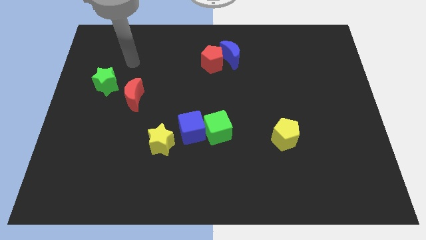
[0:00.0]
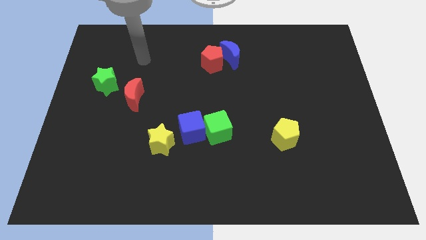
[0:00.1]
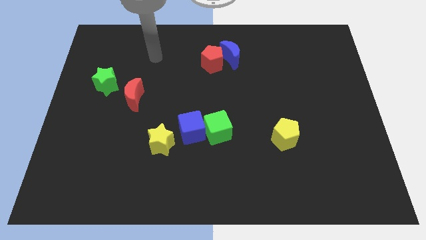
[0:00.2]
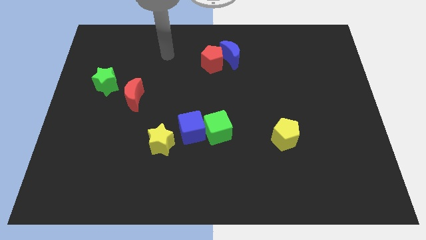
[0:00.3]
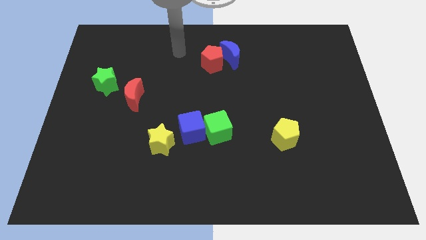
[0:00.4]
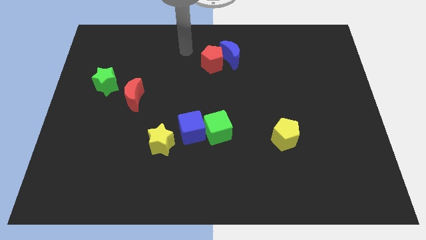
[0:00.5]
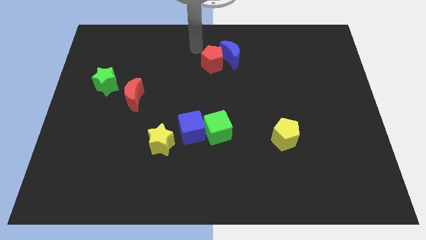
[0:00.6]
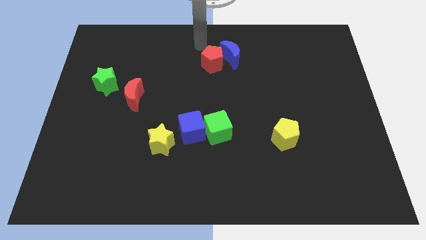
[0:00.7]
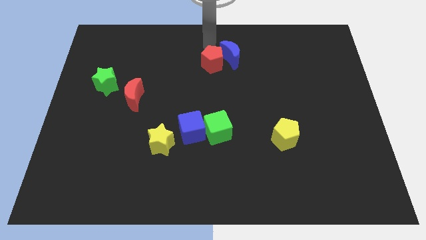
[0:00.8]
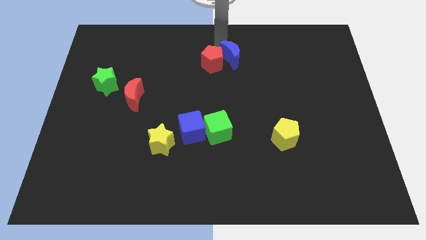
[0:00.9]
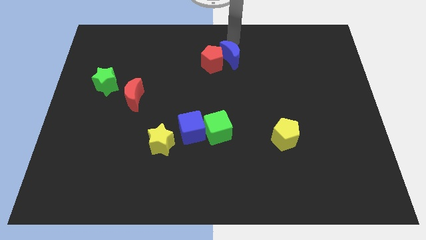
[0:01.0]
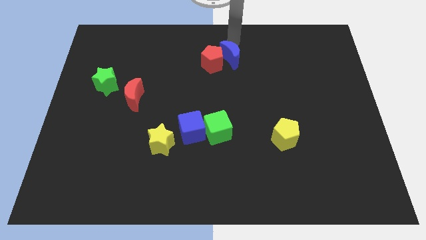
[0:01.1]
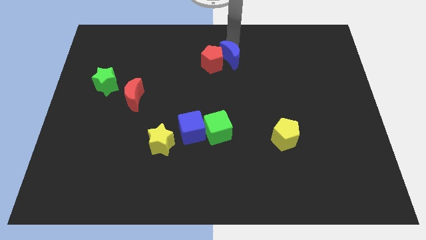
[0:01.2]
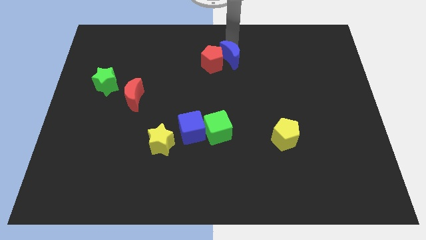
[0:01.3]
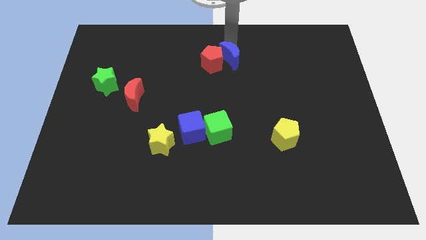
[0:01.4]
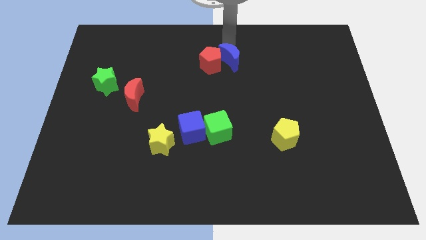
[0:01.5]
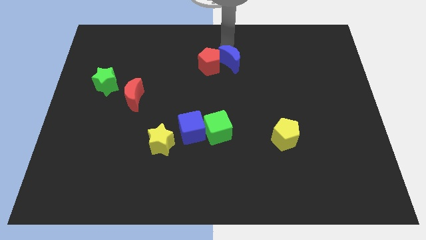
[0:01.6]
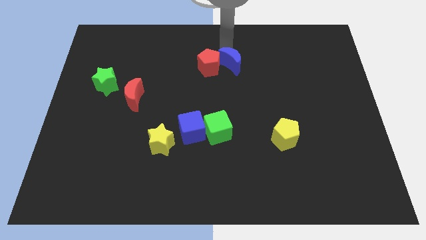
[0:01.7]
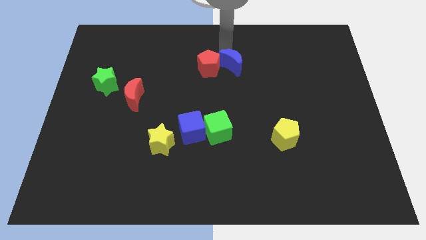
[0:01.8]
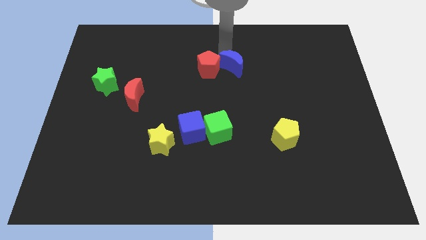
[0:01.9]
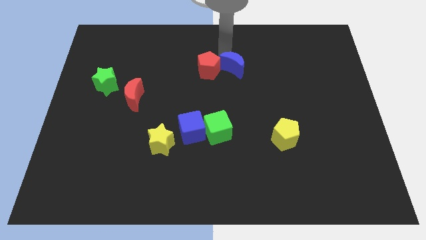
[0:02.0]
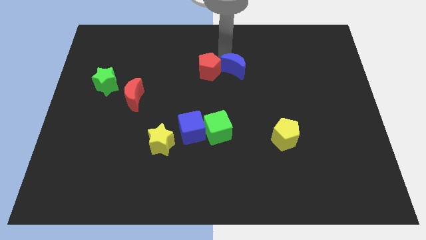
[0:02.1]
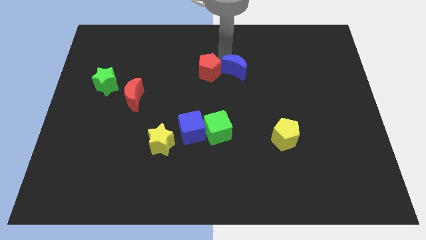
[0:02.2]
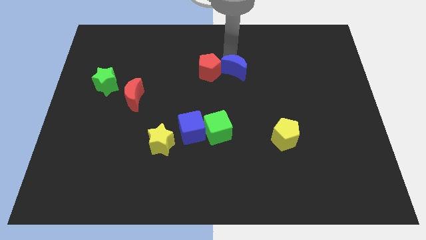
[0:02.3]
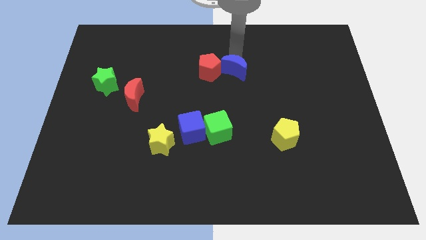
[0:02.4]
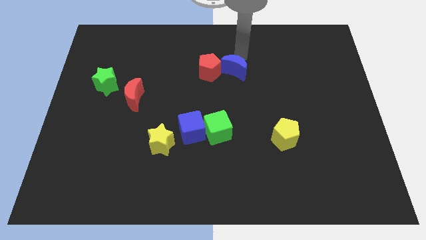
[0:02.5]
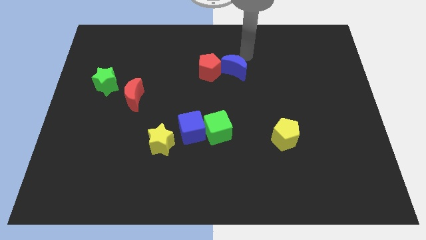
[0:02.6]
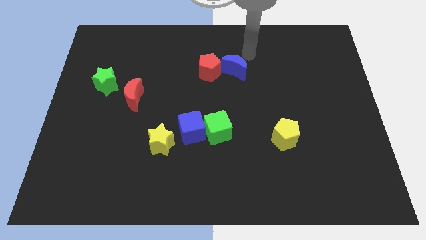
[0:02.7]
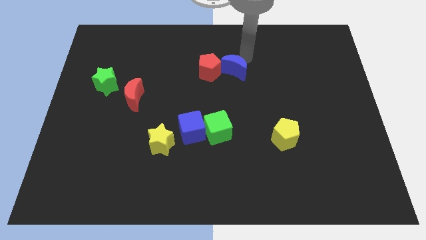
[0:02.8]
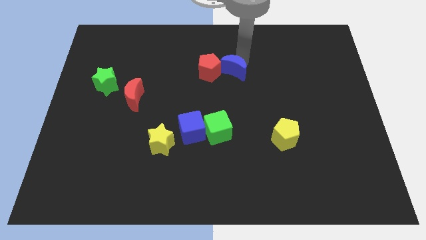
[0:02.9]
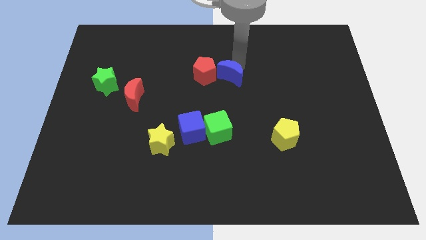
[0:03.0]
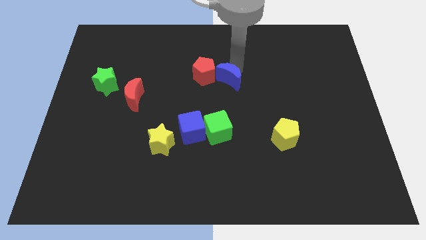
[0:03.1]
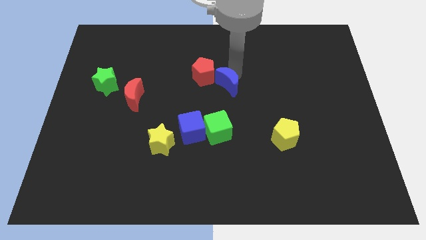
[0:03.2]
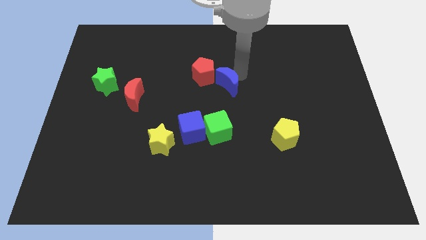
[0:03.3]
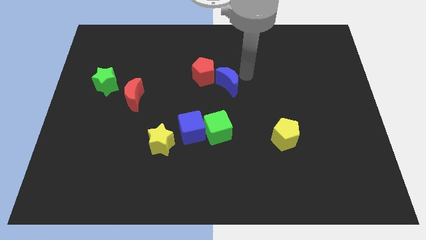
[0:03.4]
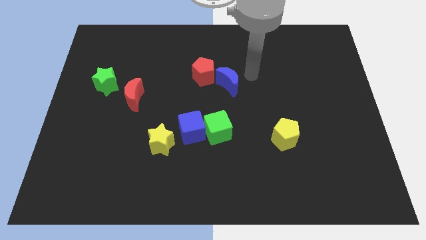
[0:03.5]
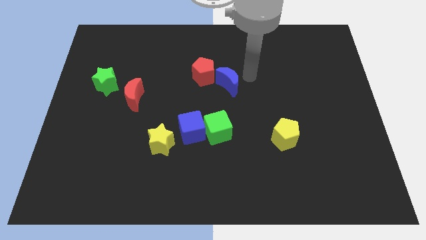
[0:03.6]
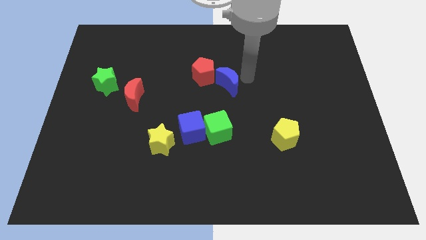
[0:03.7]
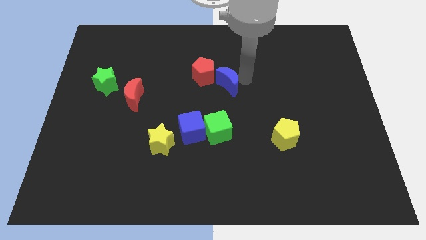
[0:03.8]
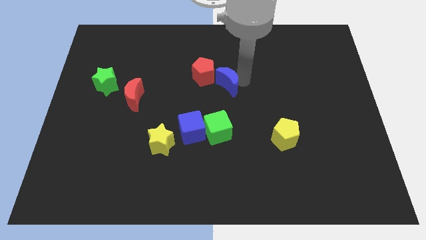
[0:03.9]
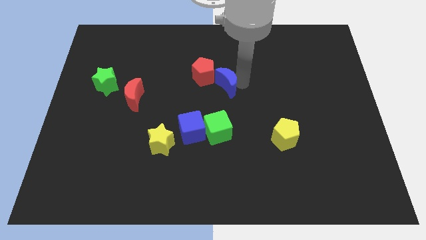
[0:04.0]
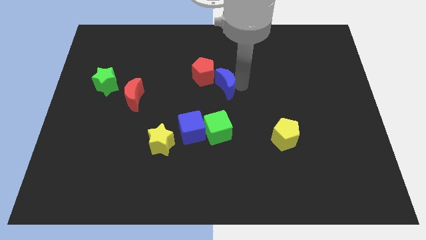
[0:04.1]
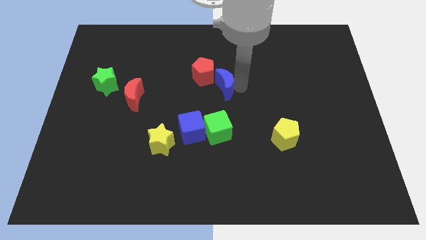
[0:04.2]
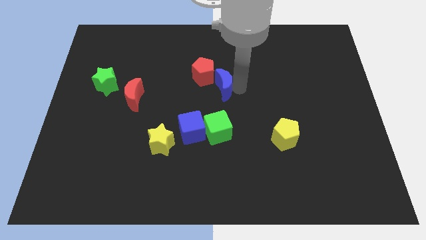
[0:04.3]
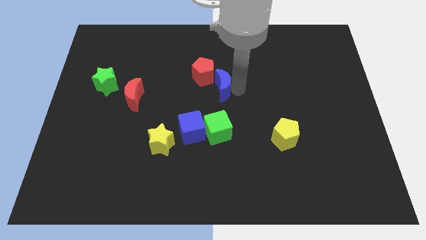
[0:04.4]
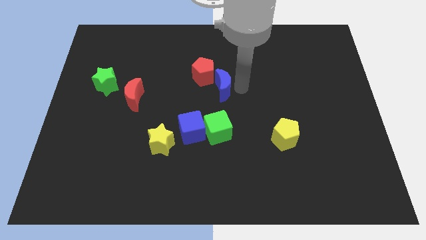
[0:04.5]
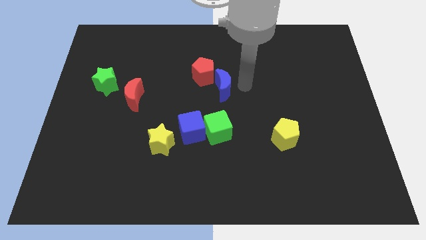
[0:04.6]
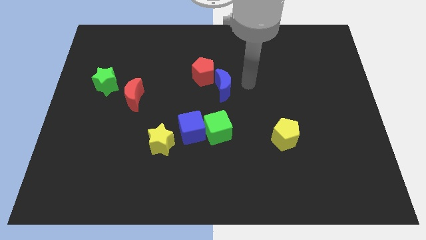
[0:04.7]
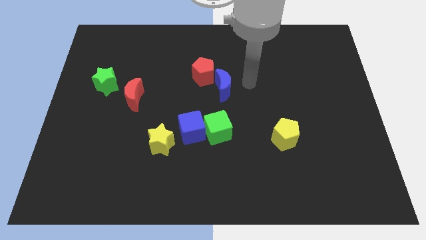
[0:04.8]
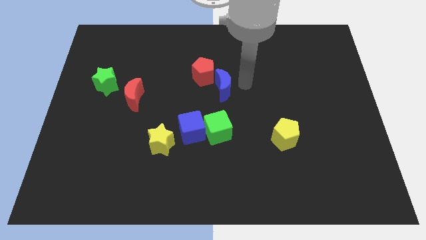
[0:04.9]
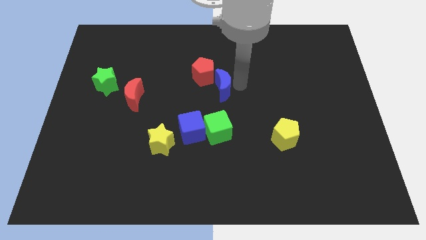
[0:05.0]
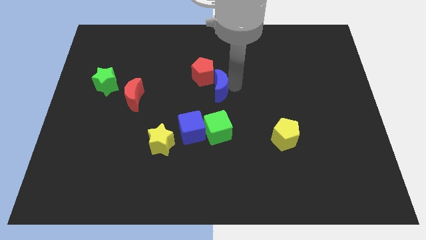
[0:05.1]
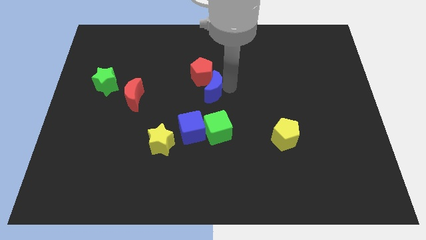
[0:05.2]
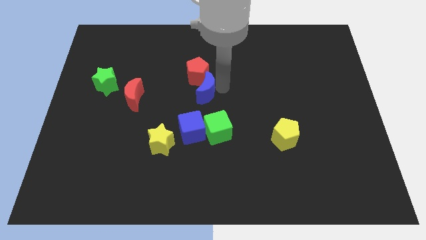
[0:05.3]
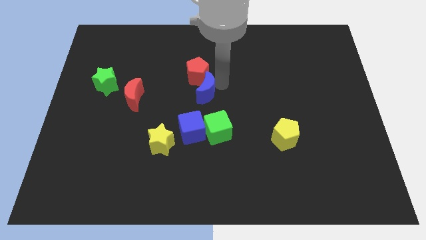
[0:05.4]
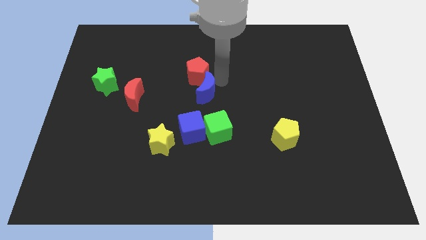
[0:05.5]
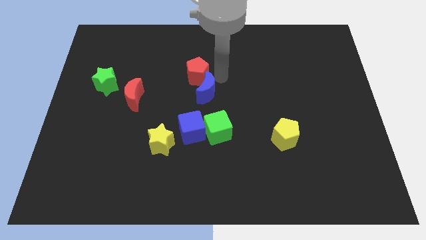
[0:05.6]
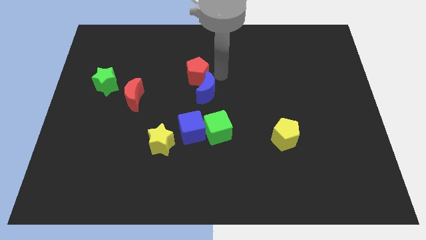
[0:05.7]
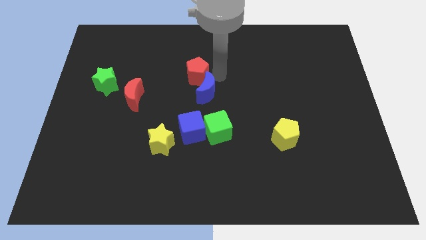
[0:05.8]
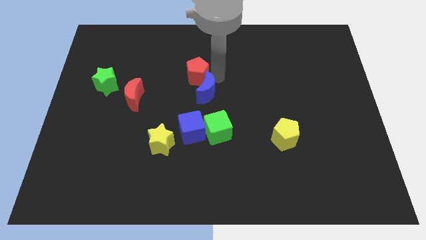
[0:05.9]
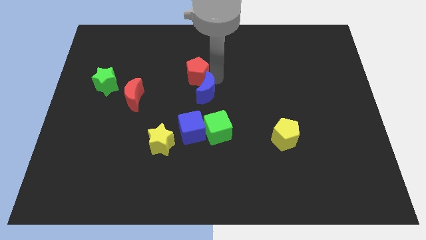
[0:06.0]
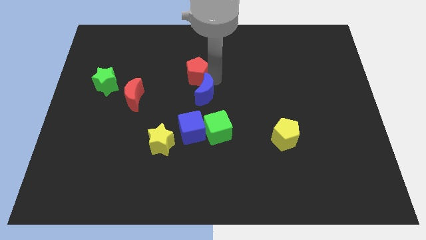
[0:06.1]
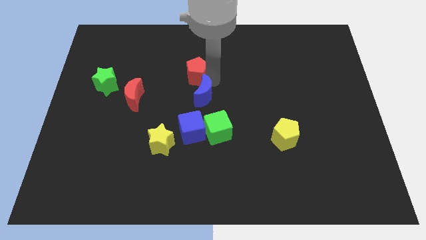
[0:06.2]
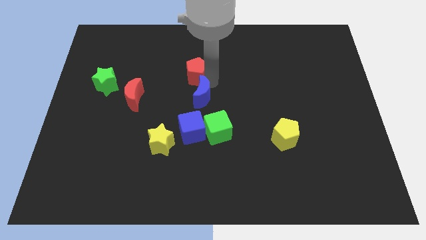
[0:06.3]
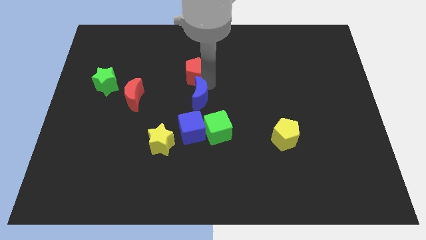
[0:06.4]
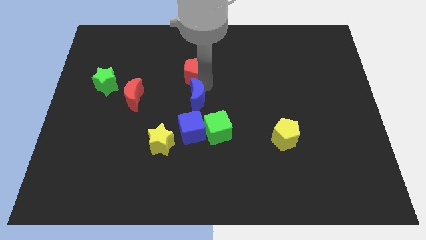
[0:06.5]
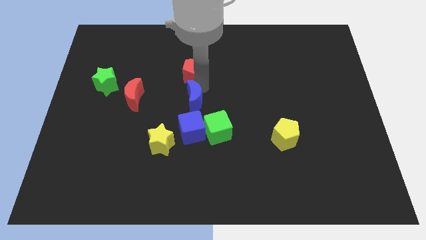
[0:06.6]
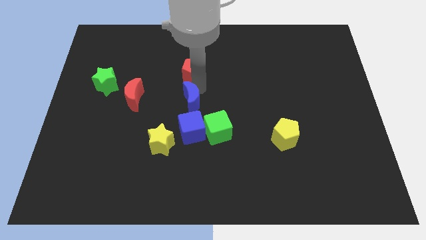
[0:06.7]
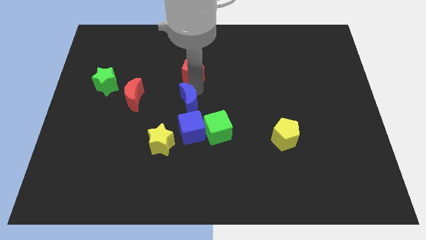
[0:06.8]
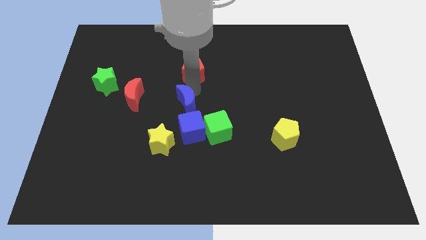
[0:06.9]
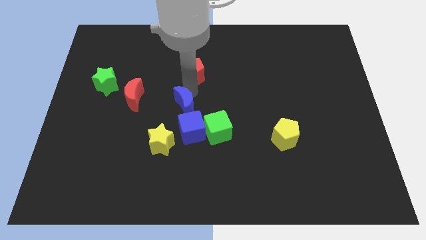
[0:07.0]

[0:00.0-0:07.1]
slide the blue moon to the top right side of the yellow star

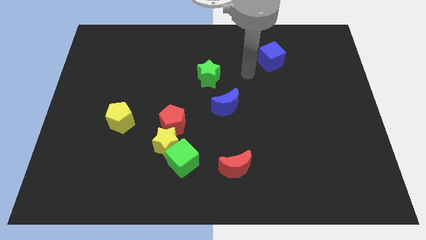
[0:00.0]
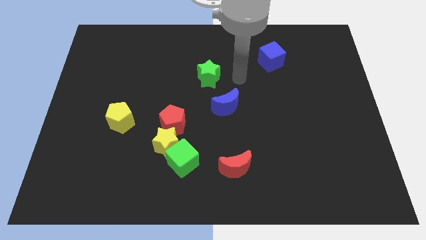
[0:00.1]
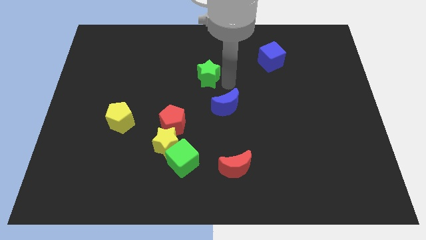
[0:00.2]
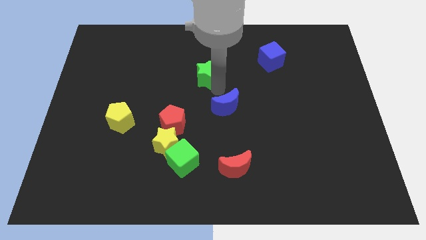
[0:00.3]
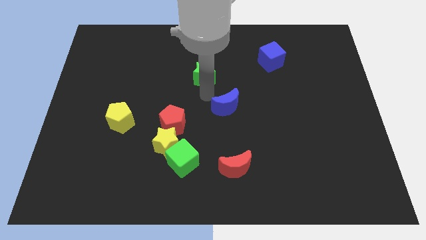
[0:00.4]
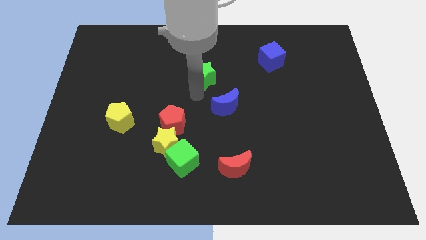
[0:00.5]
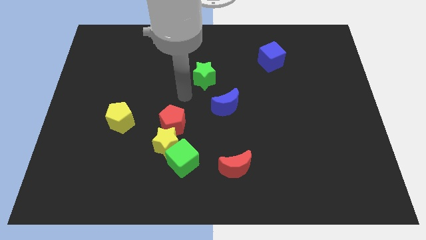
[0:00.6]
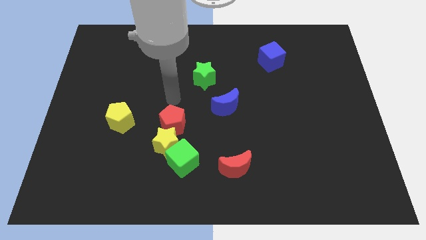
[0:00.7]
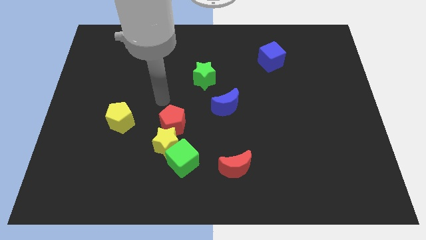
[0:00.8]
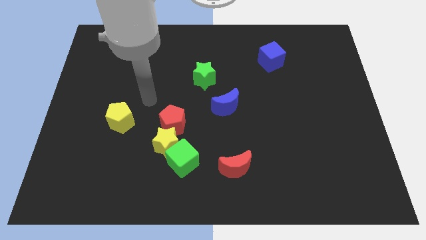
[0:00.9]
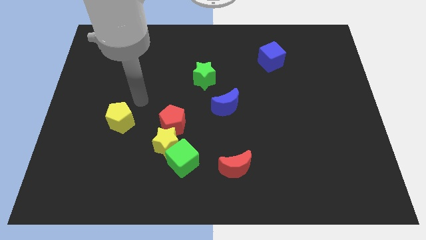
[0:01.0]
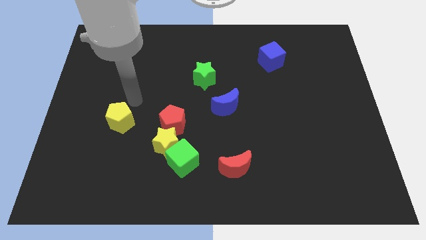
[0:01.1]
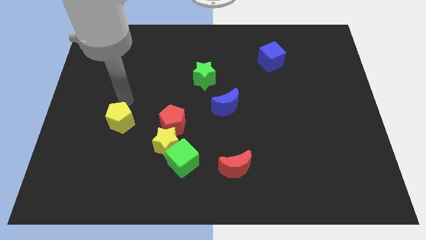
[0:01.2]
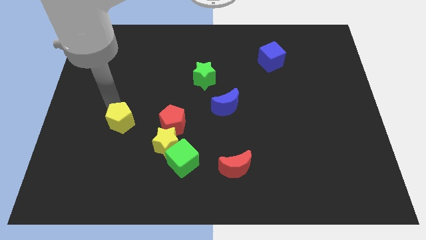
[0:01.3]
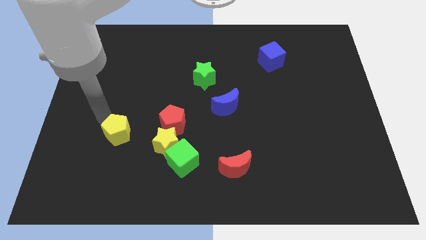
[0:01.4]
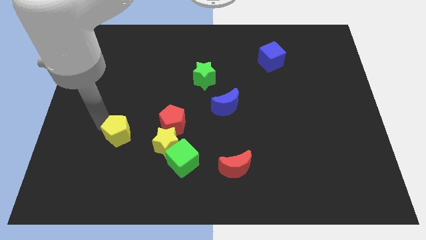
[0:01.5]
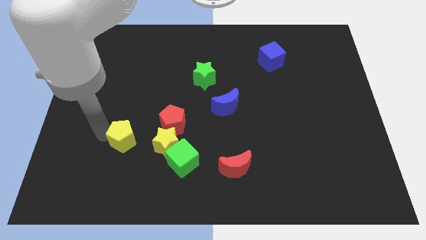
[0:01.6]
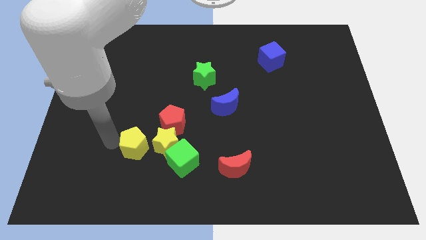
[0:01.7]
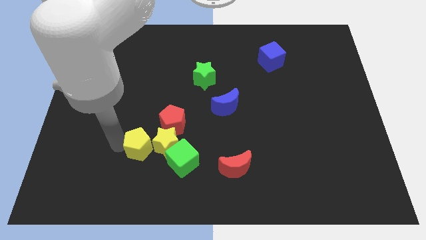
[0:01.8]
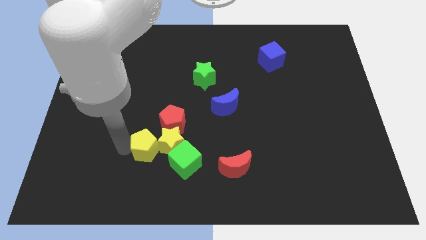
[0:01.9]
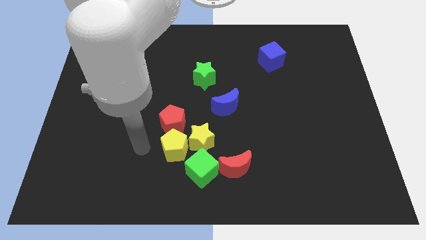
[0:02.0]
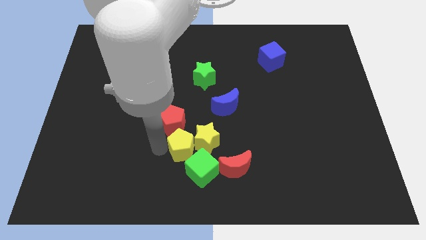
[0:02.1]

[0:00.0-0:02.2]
put the yellow star to the bottom side of the blue moon
